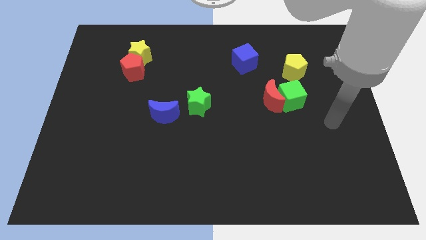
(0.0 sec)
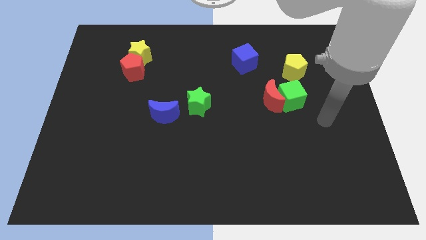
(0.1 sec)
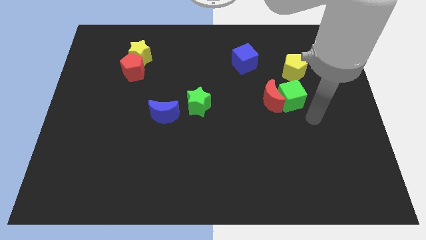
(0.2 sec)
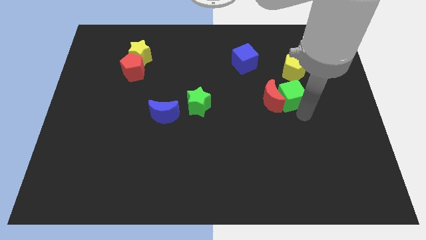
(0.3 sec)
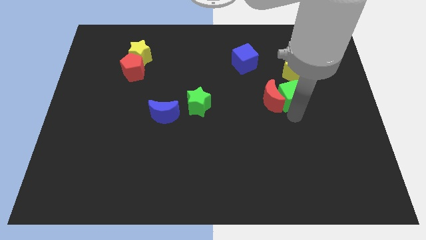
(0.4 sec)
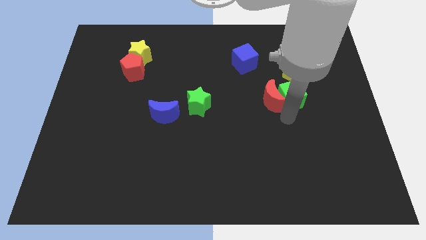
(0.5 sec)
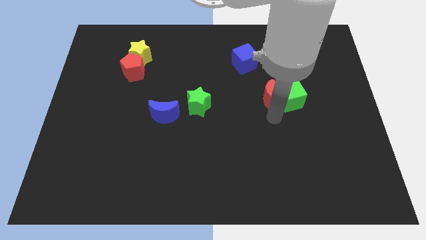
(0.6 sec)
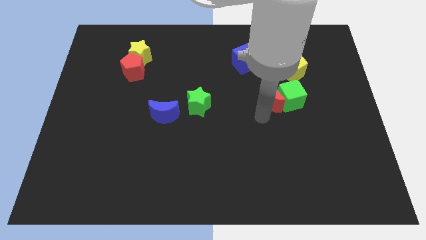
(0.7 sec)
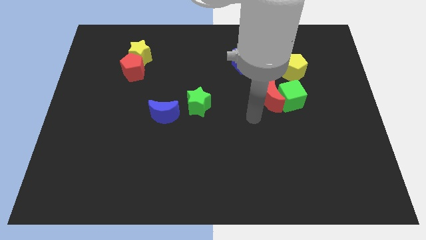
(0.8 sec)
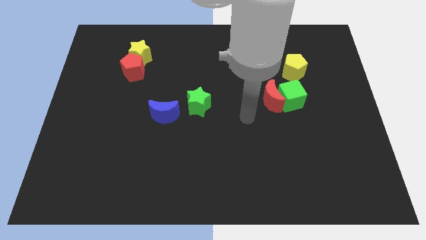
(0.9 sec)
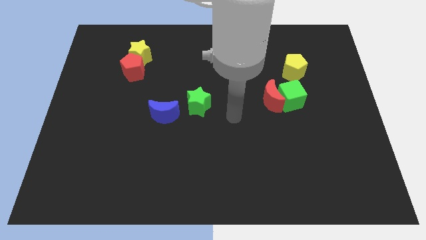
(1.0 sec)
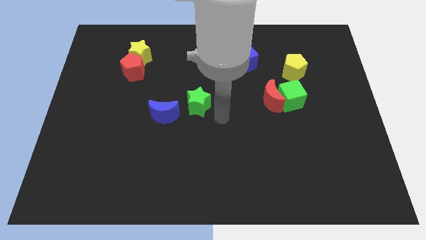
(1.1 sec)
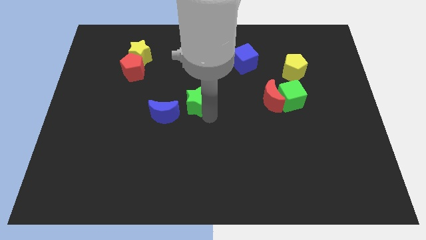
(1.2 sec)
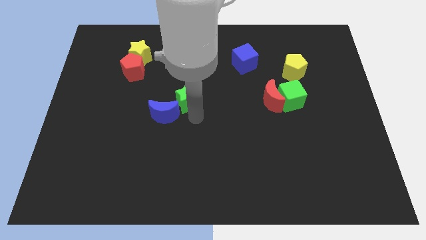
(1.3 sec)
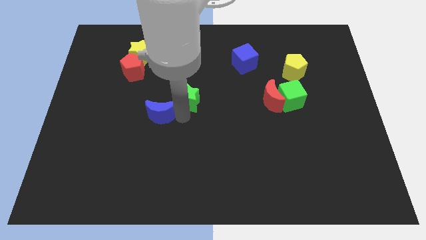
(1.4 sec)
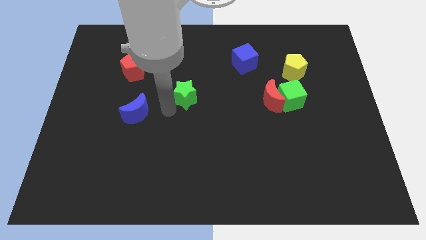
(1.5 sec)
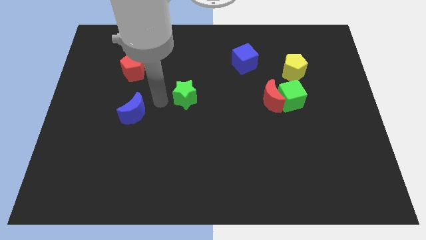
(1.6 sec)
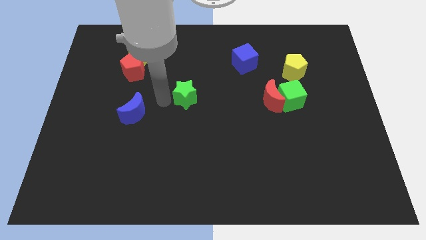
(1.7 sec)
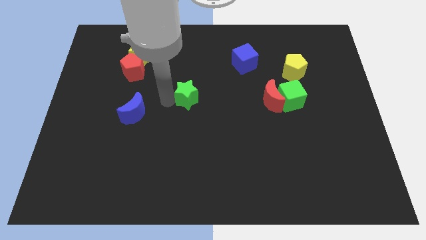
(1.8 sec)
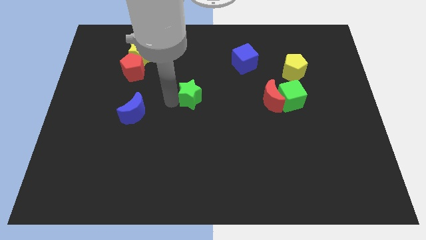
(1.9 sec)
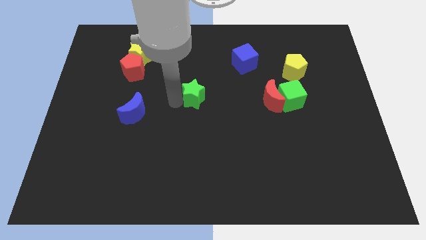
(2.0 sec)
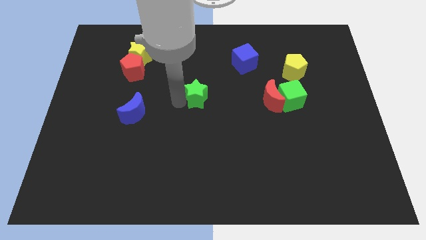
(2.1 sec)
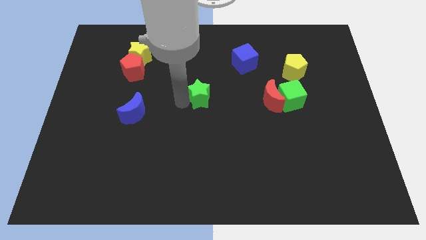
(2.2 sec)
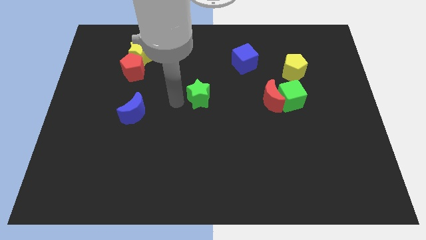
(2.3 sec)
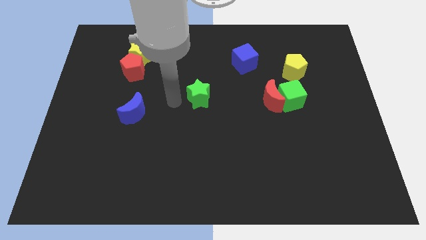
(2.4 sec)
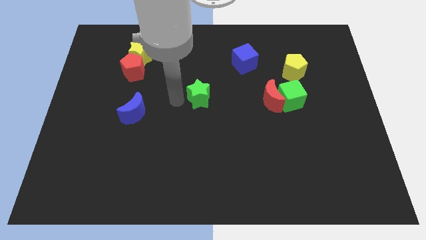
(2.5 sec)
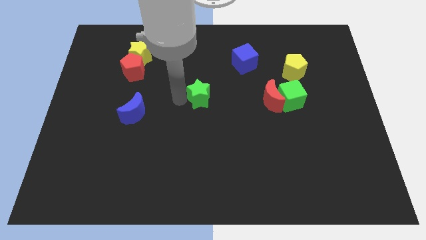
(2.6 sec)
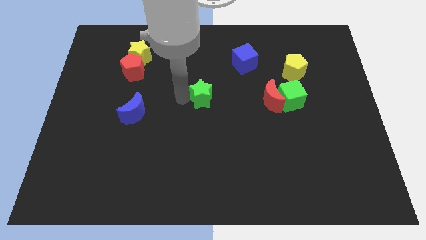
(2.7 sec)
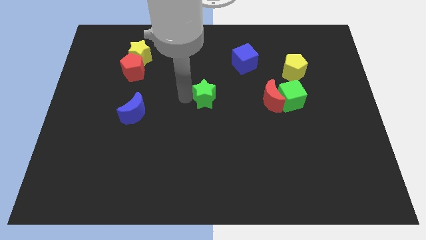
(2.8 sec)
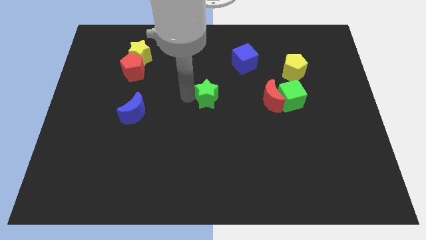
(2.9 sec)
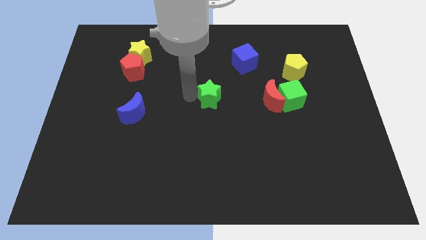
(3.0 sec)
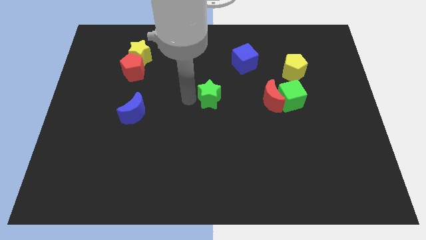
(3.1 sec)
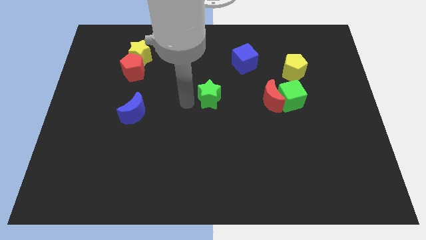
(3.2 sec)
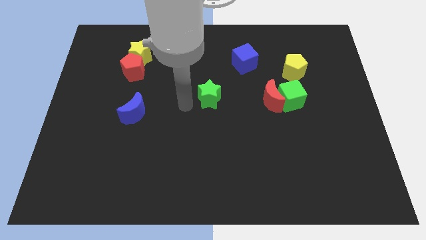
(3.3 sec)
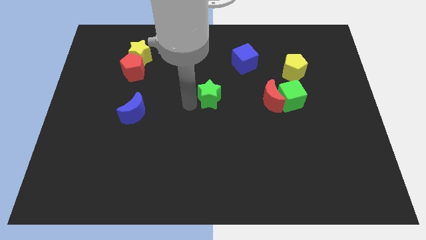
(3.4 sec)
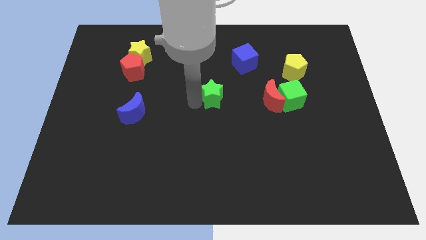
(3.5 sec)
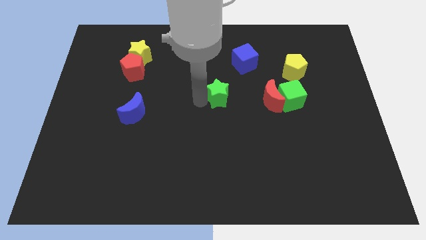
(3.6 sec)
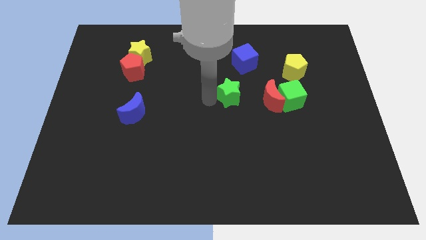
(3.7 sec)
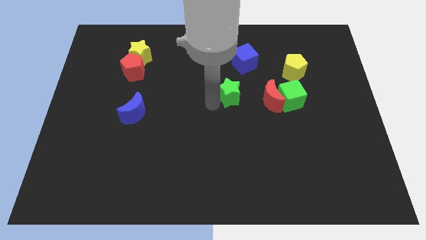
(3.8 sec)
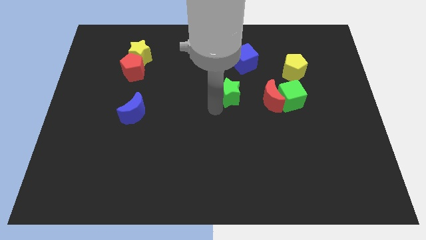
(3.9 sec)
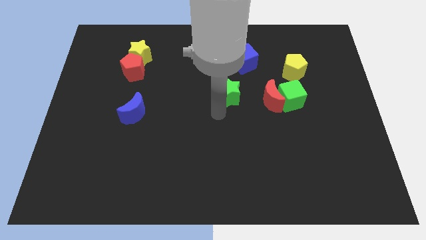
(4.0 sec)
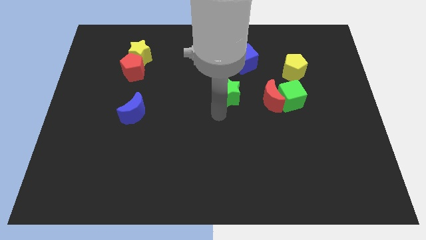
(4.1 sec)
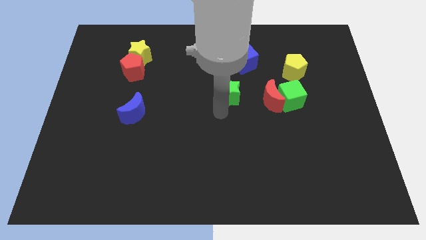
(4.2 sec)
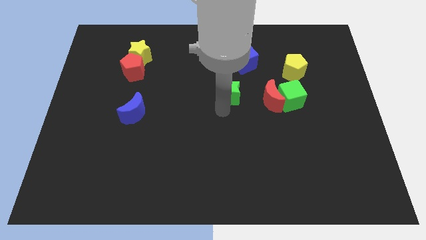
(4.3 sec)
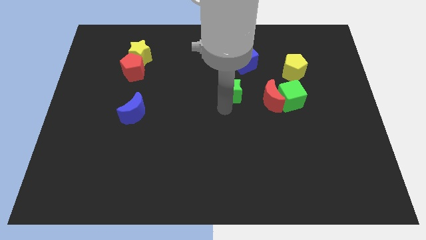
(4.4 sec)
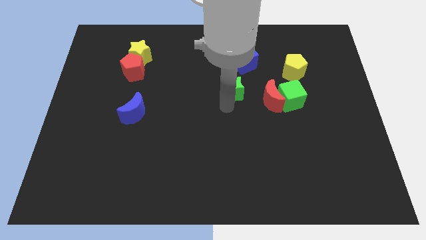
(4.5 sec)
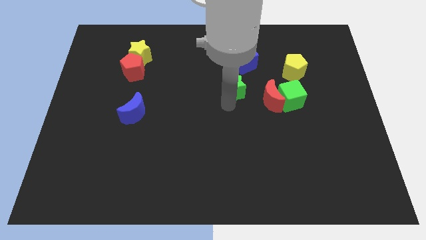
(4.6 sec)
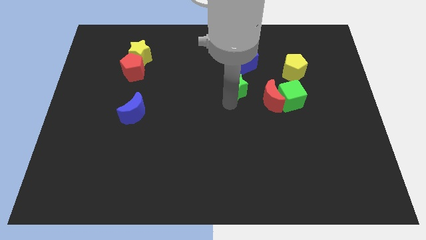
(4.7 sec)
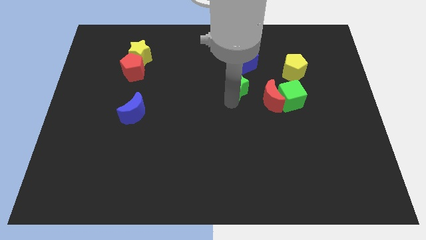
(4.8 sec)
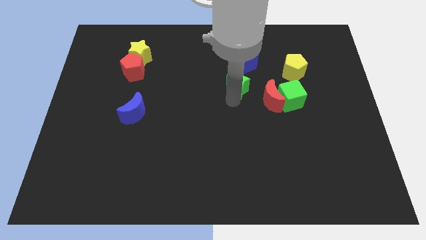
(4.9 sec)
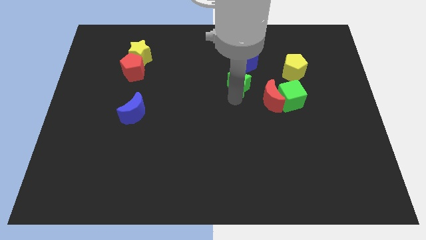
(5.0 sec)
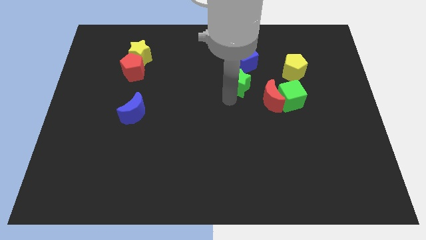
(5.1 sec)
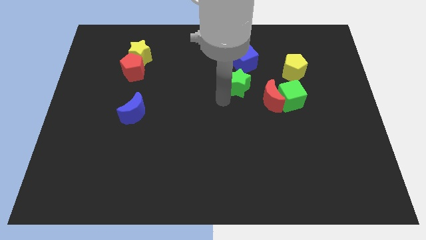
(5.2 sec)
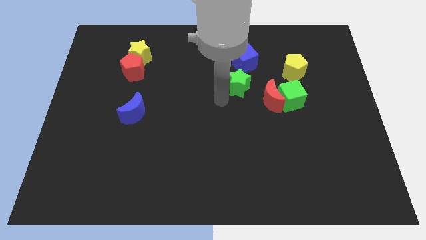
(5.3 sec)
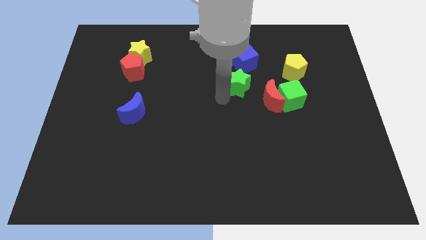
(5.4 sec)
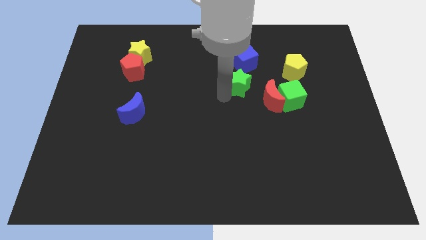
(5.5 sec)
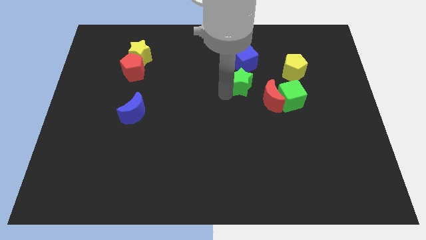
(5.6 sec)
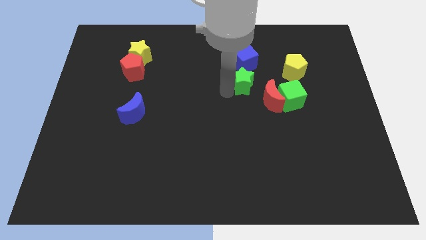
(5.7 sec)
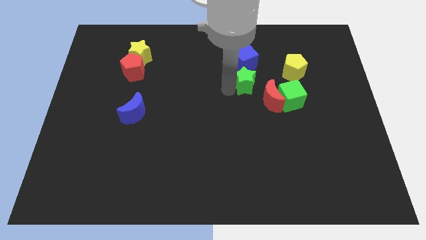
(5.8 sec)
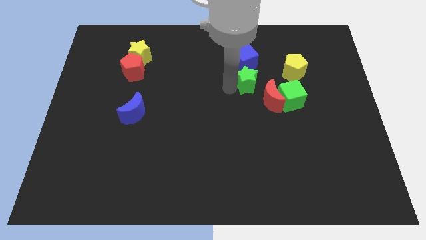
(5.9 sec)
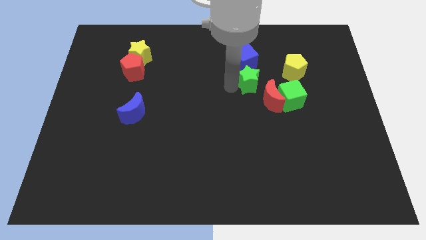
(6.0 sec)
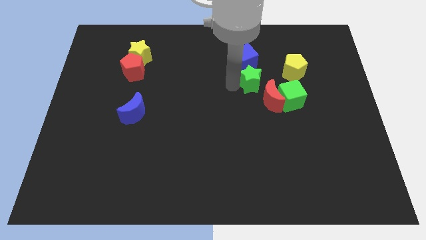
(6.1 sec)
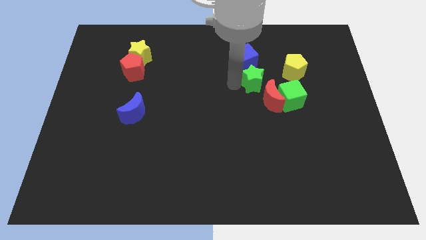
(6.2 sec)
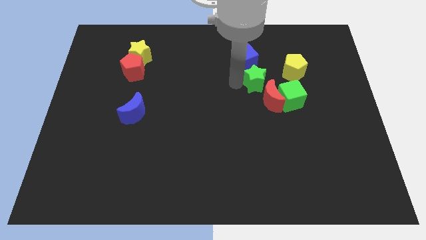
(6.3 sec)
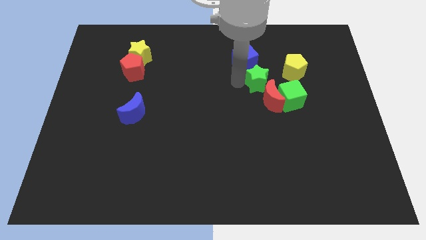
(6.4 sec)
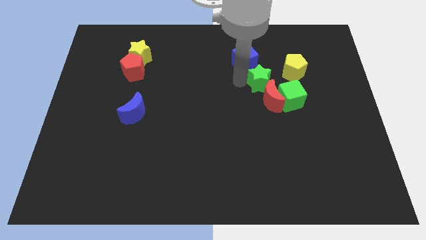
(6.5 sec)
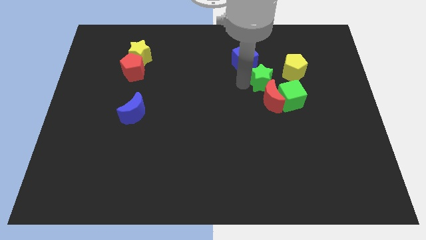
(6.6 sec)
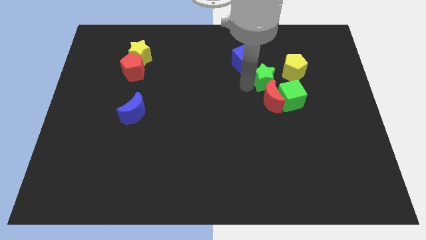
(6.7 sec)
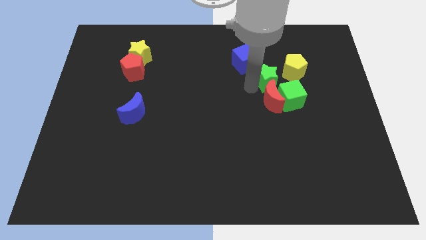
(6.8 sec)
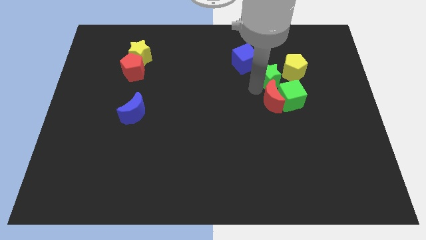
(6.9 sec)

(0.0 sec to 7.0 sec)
put the green star to the top side of the green cube

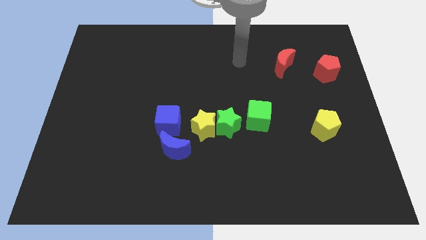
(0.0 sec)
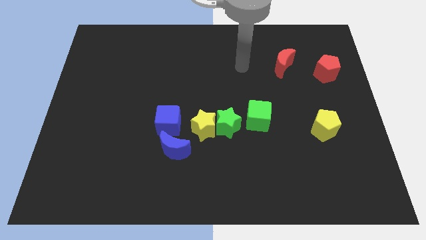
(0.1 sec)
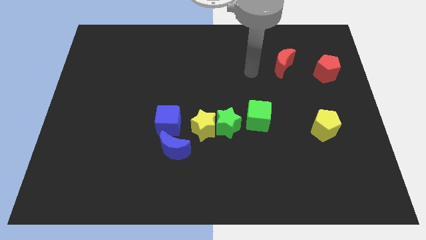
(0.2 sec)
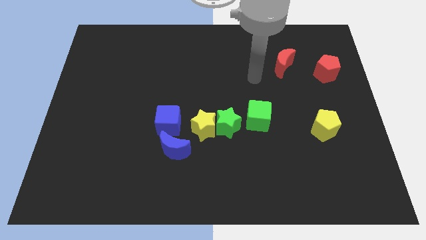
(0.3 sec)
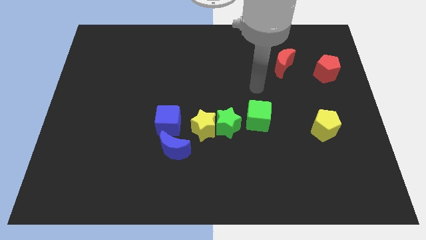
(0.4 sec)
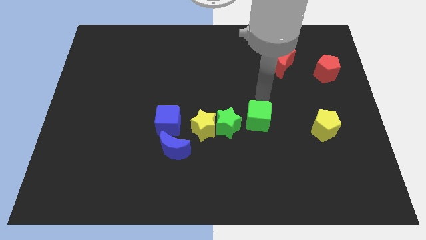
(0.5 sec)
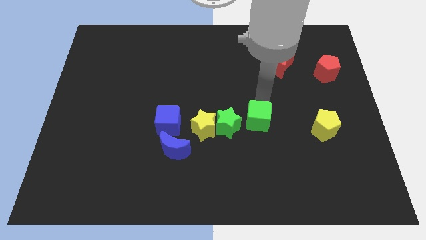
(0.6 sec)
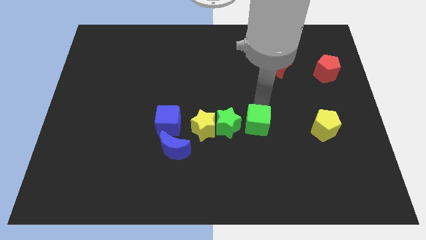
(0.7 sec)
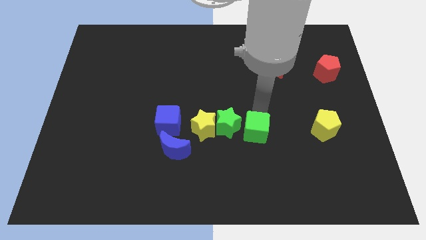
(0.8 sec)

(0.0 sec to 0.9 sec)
put the green cube to the bottom right of the green star
